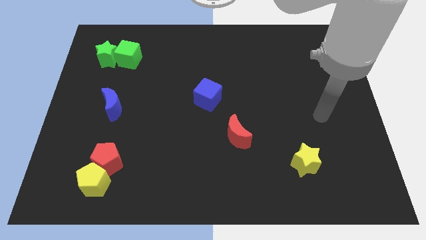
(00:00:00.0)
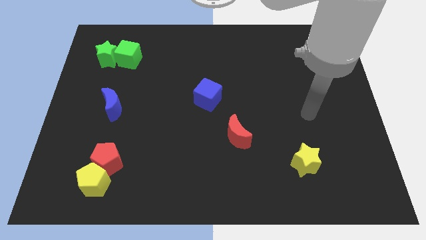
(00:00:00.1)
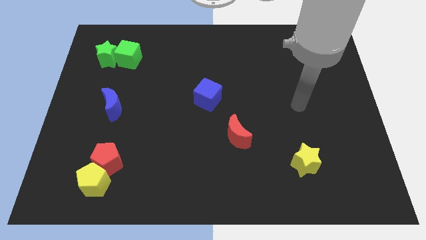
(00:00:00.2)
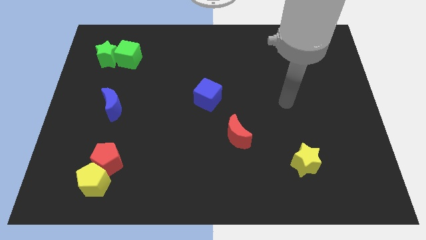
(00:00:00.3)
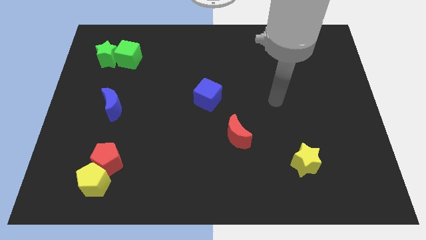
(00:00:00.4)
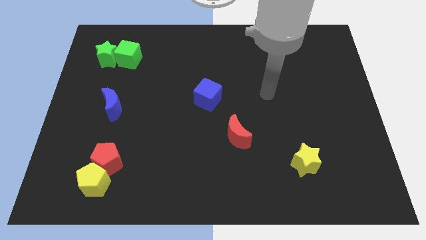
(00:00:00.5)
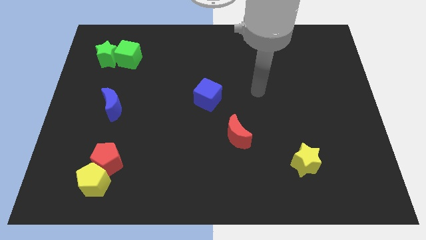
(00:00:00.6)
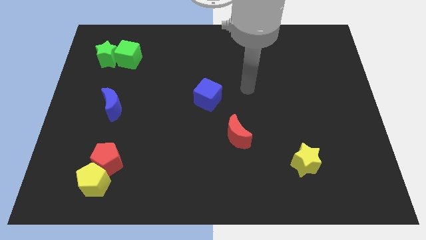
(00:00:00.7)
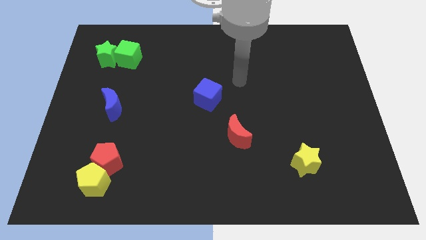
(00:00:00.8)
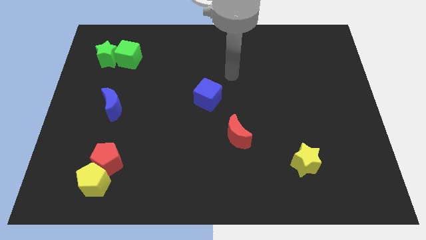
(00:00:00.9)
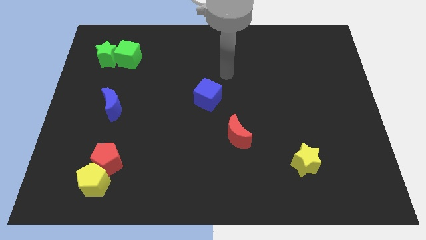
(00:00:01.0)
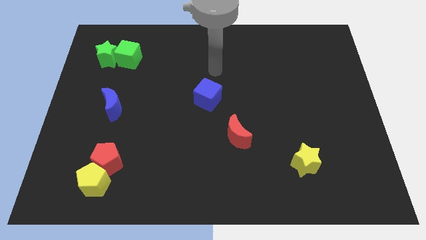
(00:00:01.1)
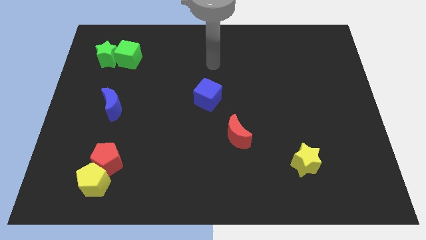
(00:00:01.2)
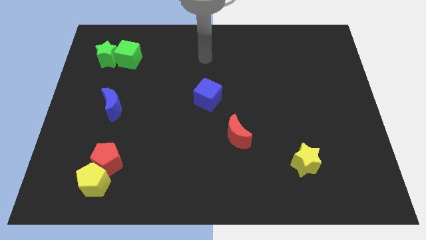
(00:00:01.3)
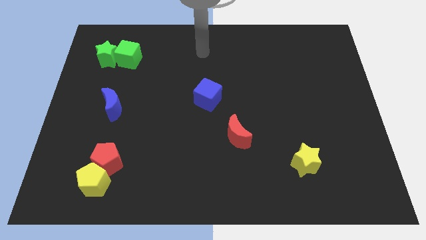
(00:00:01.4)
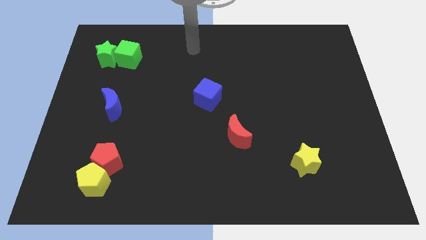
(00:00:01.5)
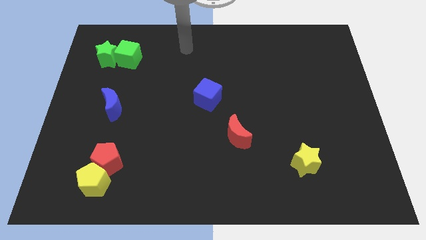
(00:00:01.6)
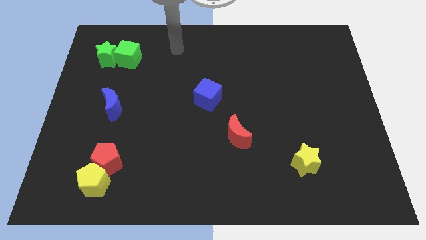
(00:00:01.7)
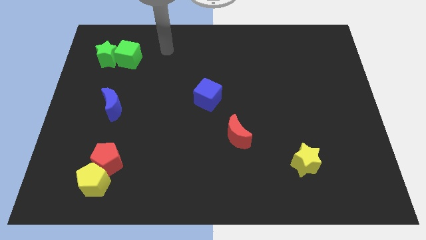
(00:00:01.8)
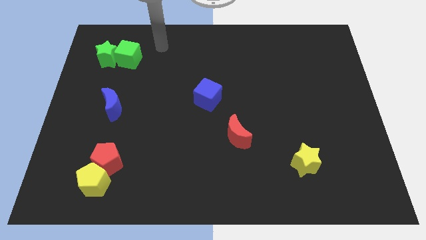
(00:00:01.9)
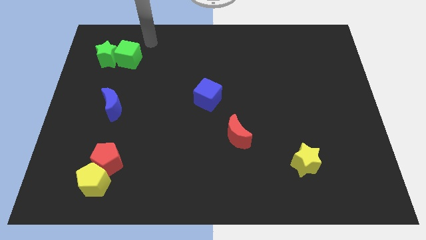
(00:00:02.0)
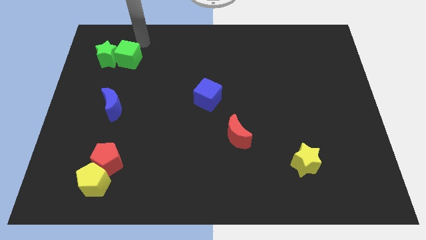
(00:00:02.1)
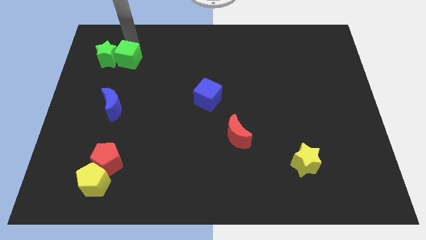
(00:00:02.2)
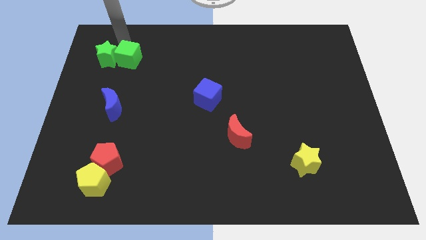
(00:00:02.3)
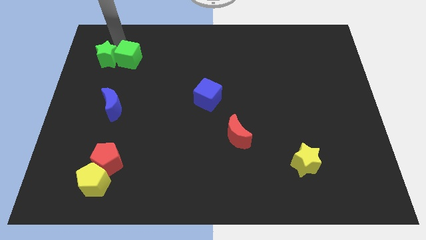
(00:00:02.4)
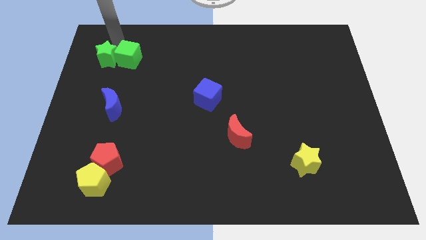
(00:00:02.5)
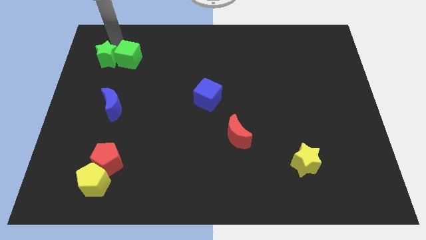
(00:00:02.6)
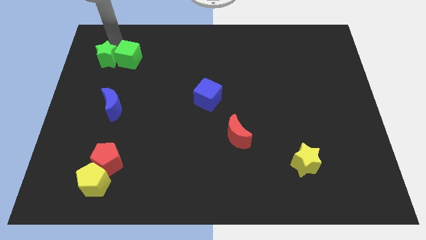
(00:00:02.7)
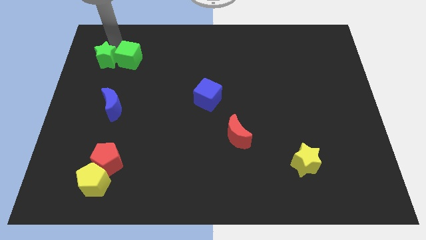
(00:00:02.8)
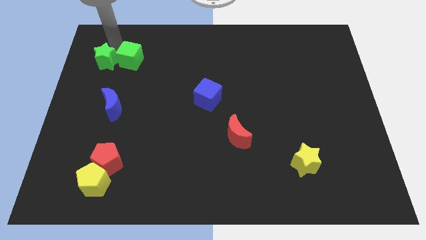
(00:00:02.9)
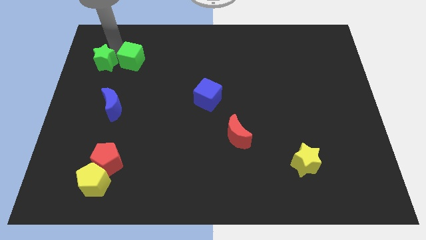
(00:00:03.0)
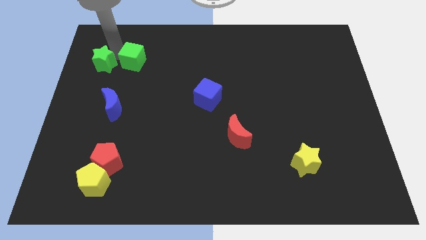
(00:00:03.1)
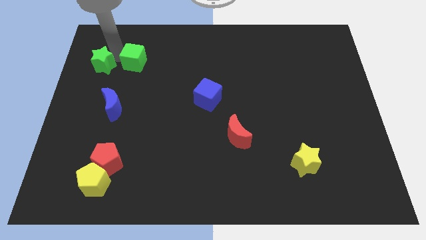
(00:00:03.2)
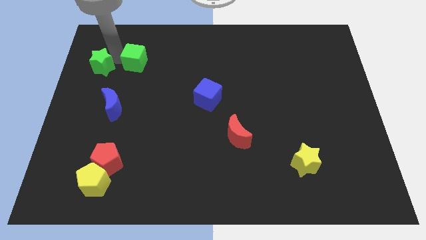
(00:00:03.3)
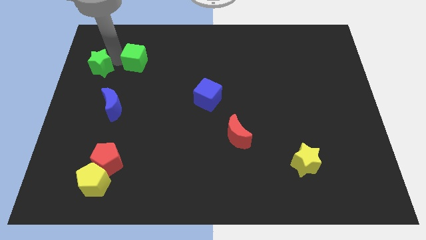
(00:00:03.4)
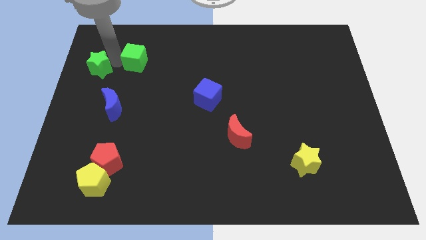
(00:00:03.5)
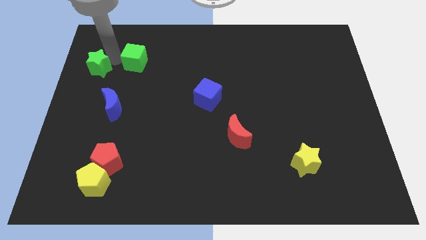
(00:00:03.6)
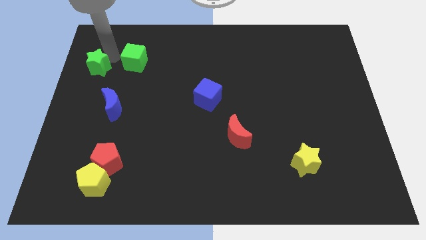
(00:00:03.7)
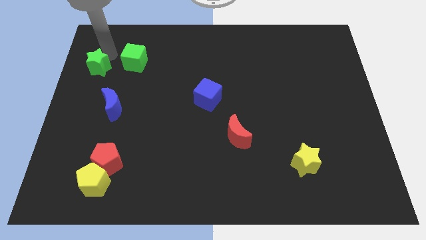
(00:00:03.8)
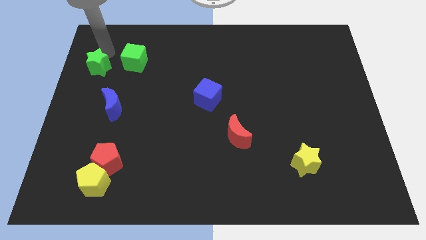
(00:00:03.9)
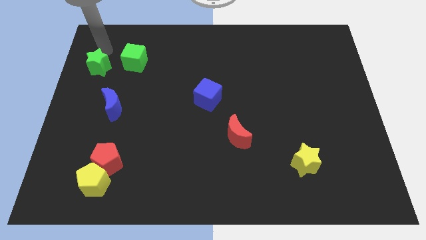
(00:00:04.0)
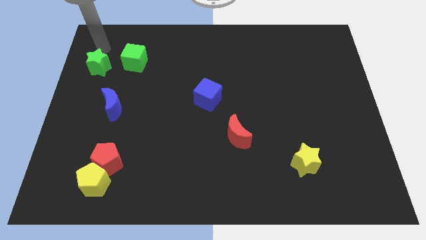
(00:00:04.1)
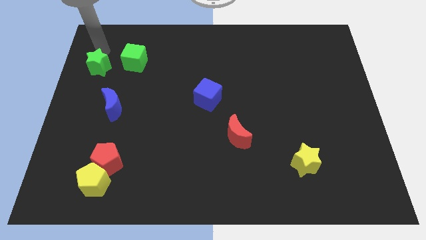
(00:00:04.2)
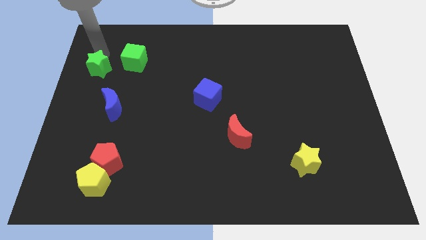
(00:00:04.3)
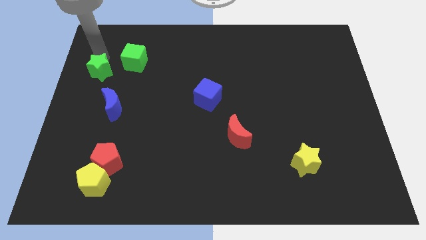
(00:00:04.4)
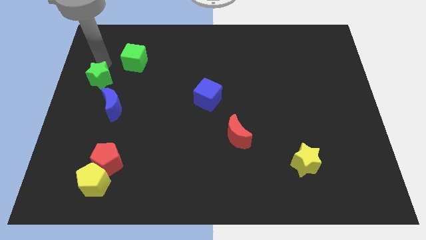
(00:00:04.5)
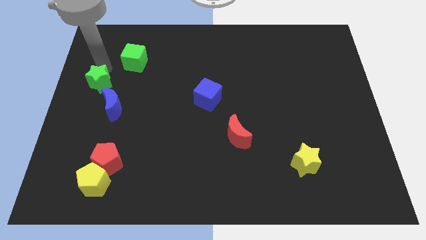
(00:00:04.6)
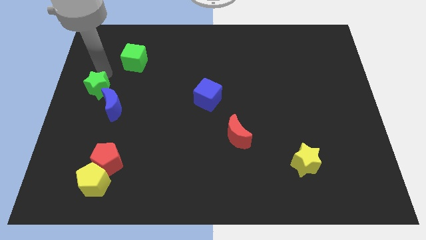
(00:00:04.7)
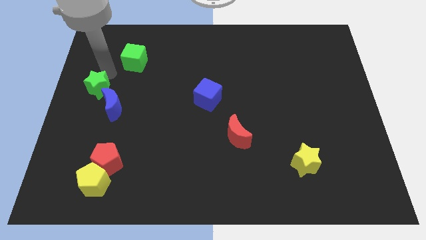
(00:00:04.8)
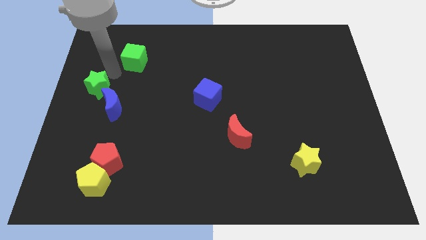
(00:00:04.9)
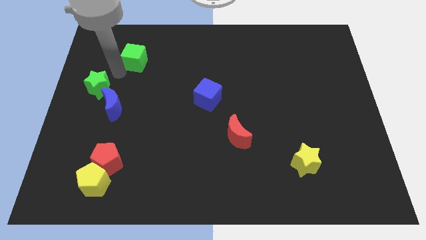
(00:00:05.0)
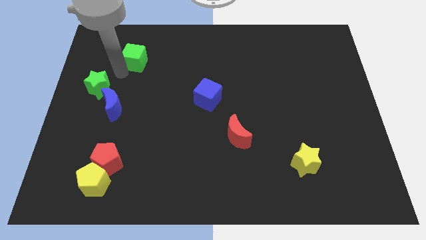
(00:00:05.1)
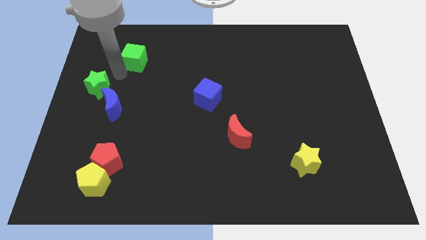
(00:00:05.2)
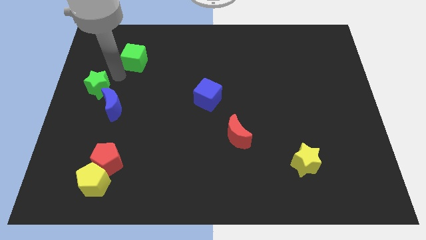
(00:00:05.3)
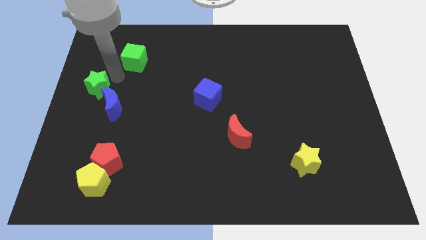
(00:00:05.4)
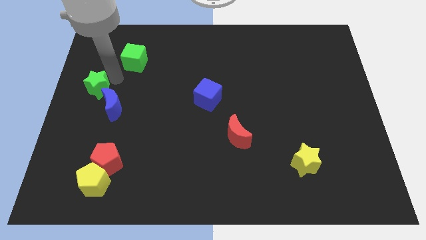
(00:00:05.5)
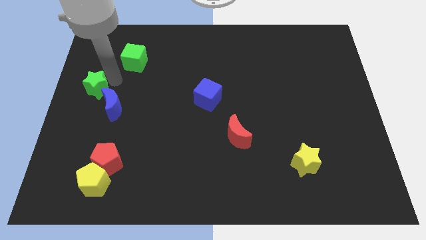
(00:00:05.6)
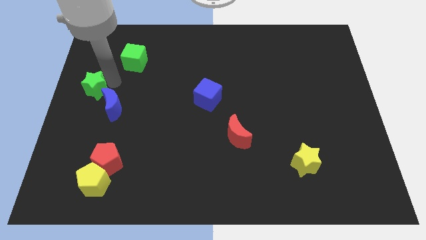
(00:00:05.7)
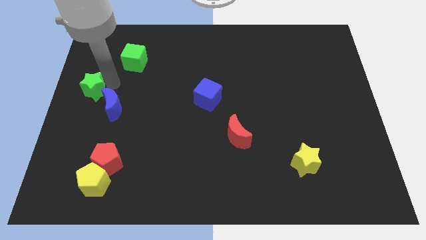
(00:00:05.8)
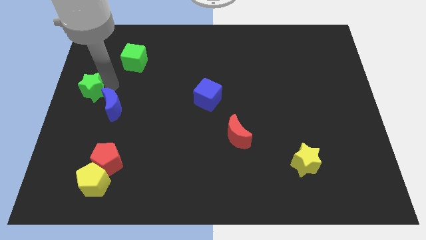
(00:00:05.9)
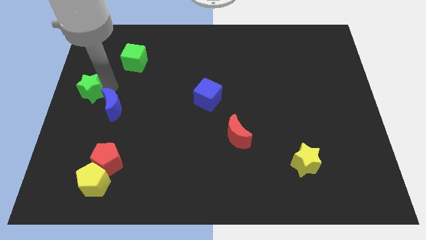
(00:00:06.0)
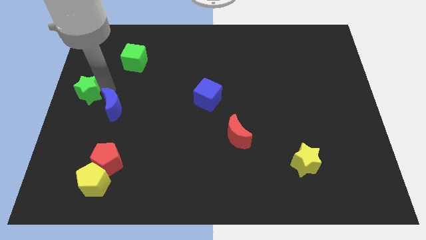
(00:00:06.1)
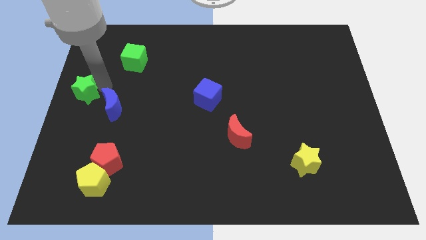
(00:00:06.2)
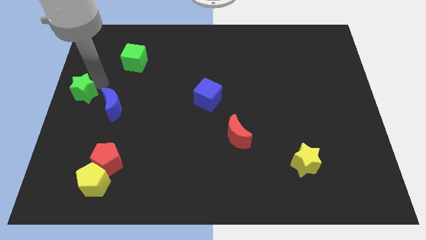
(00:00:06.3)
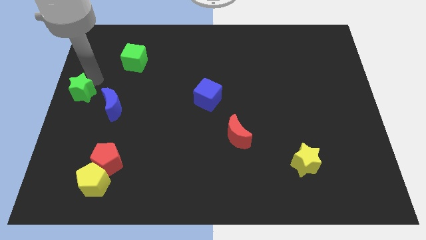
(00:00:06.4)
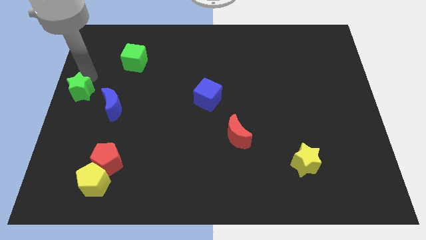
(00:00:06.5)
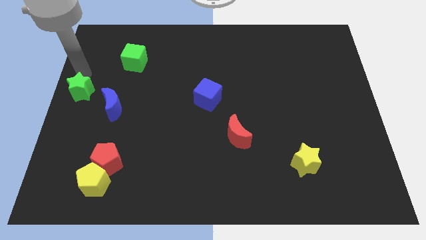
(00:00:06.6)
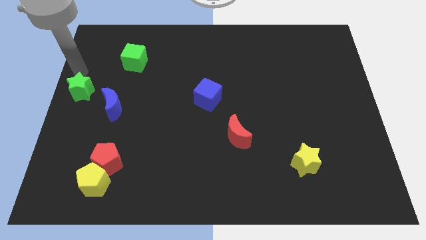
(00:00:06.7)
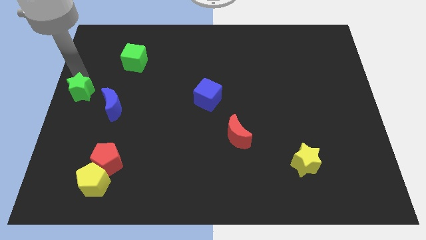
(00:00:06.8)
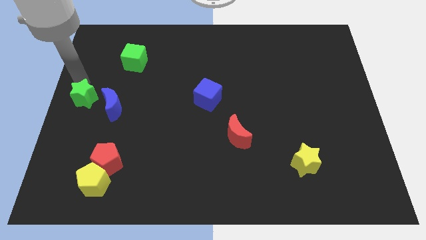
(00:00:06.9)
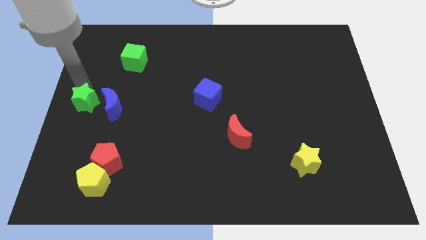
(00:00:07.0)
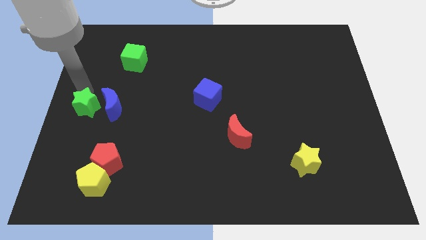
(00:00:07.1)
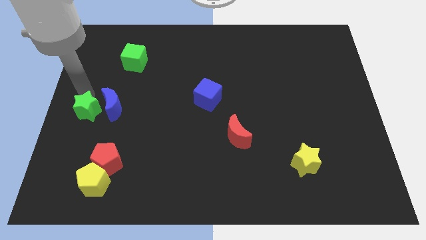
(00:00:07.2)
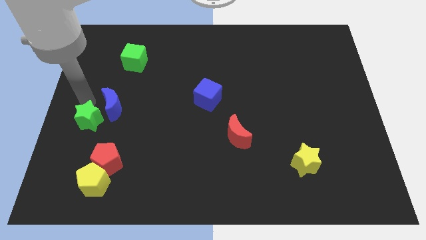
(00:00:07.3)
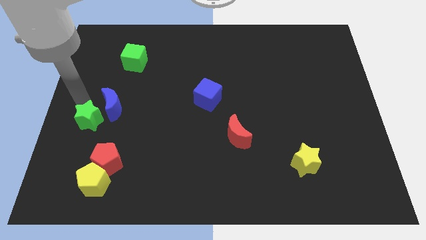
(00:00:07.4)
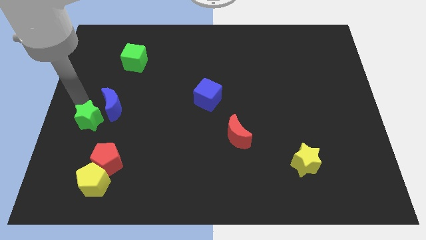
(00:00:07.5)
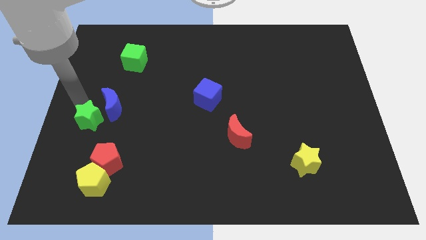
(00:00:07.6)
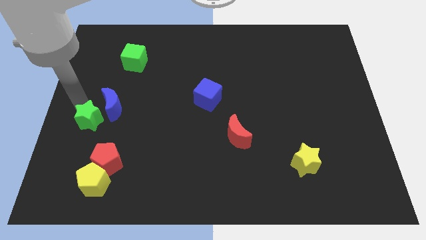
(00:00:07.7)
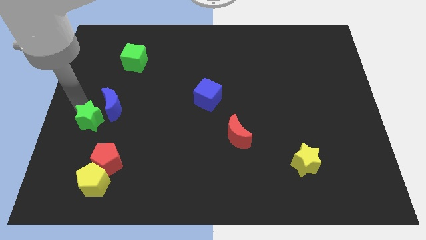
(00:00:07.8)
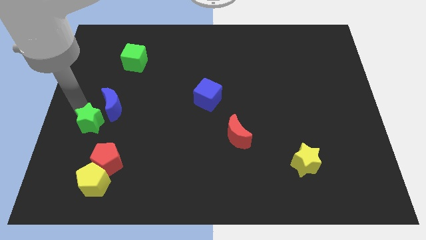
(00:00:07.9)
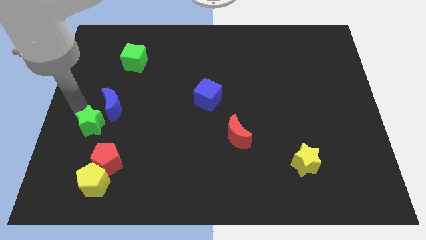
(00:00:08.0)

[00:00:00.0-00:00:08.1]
slide the green star to the top side of the yellow pentagon
